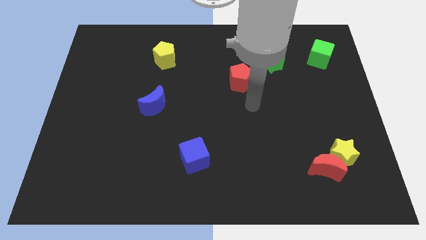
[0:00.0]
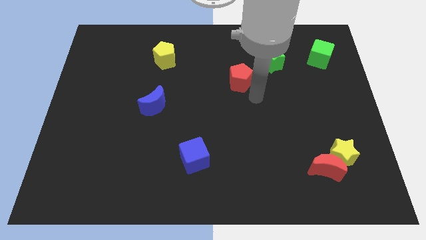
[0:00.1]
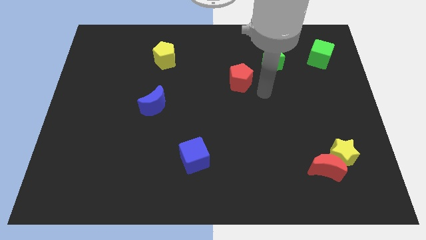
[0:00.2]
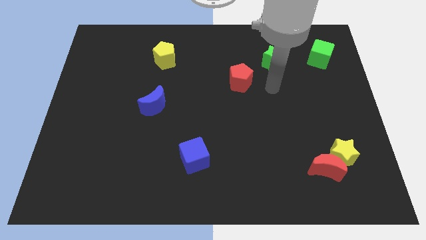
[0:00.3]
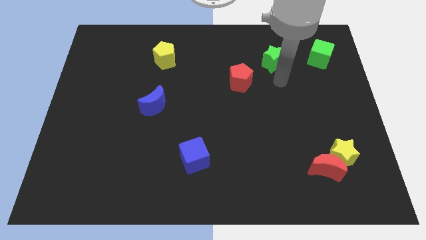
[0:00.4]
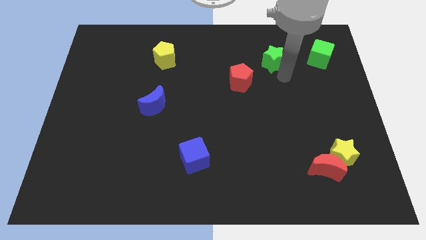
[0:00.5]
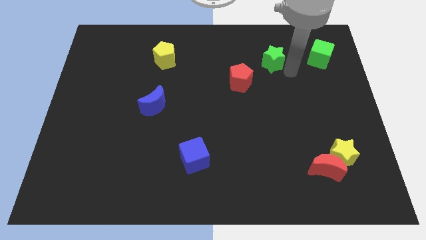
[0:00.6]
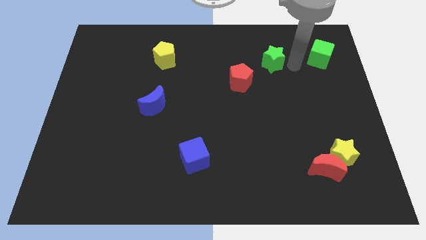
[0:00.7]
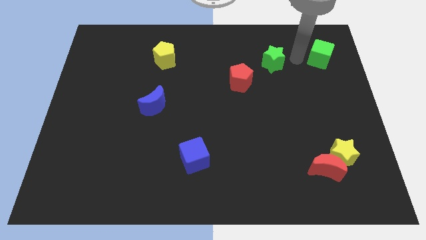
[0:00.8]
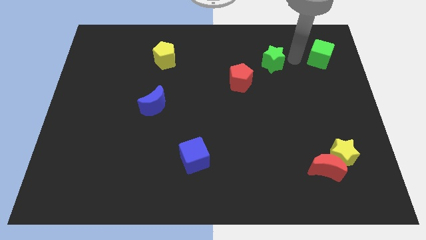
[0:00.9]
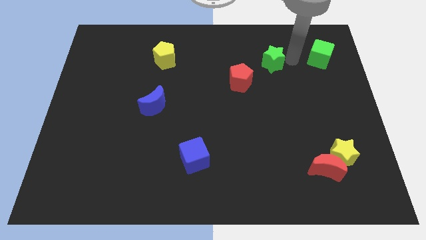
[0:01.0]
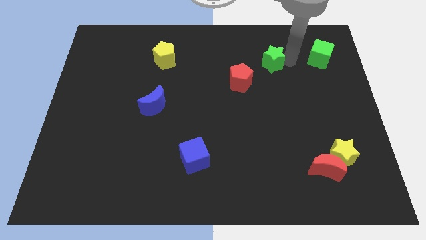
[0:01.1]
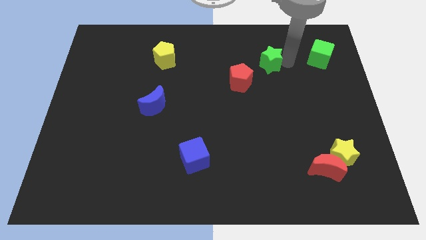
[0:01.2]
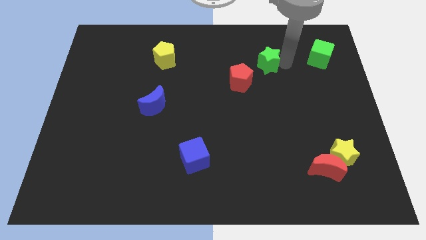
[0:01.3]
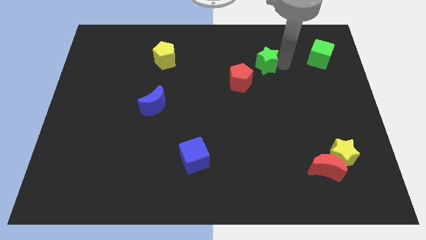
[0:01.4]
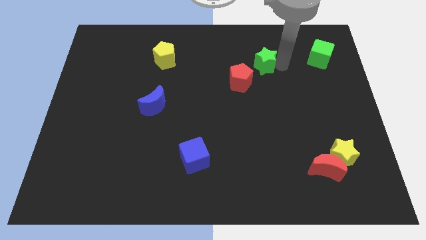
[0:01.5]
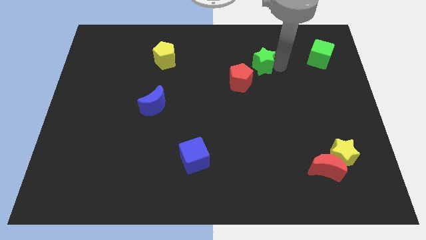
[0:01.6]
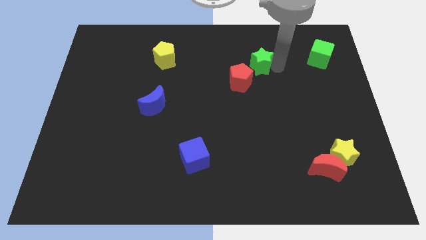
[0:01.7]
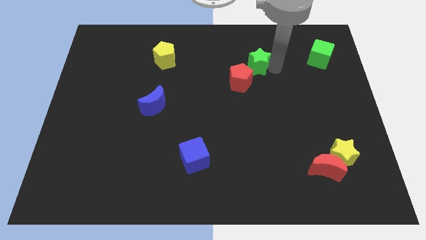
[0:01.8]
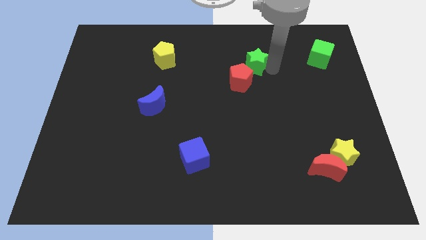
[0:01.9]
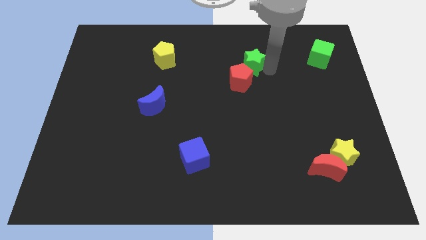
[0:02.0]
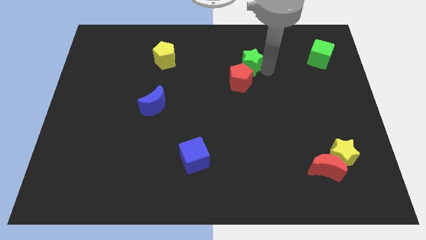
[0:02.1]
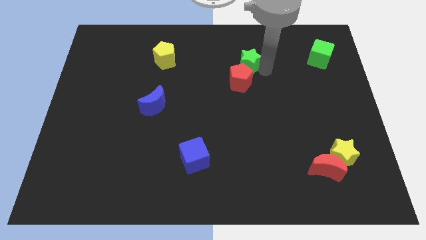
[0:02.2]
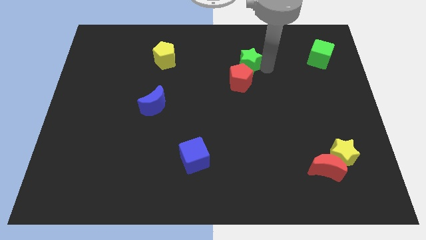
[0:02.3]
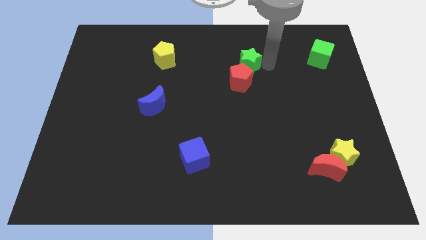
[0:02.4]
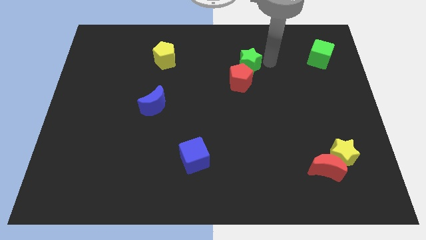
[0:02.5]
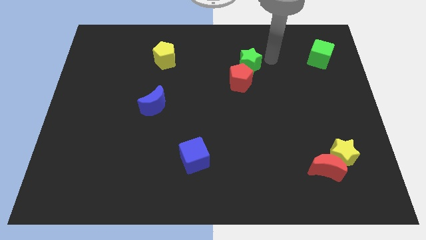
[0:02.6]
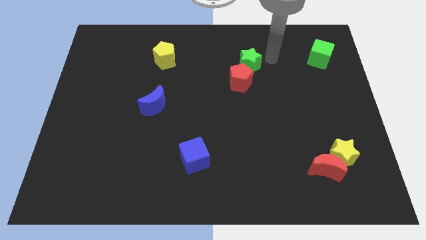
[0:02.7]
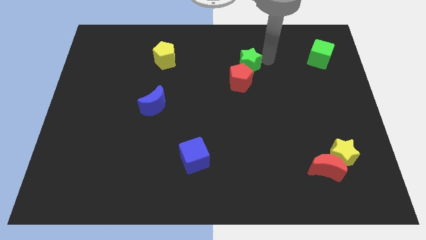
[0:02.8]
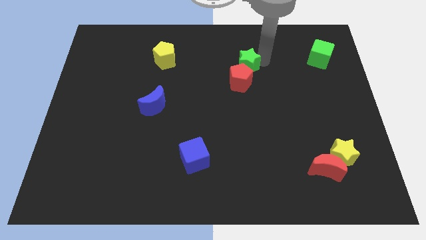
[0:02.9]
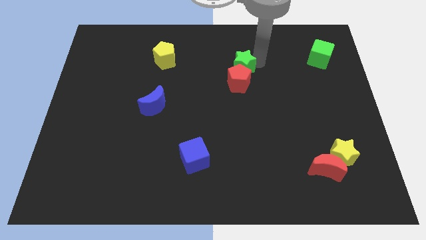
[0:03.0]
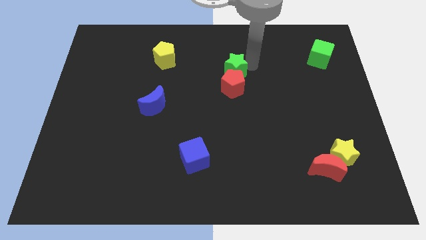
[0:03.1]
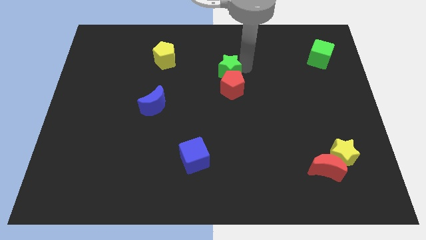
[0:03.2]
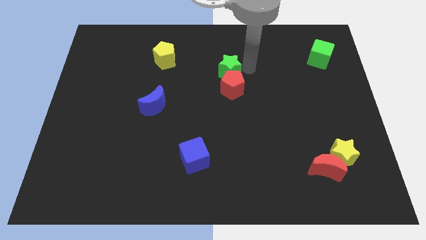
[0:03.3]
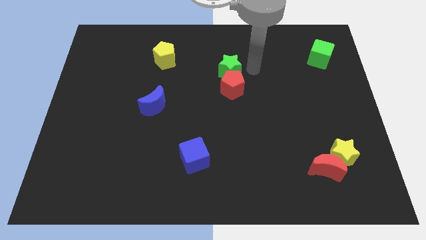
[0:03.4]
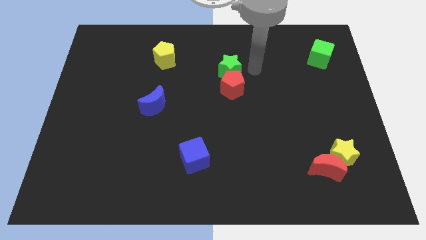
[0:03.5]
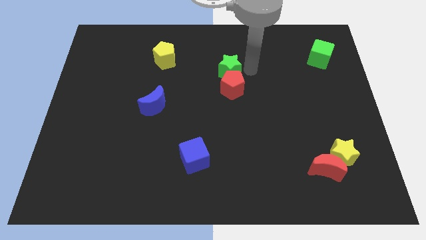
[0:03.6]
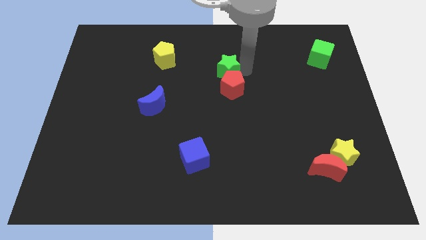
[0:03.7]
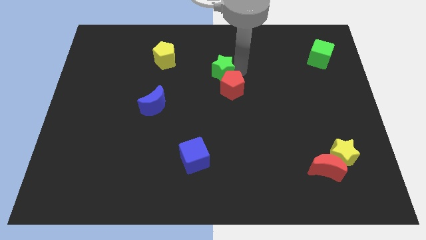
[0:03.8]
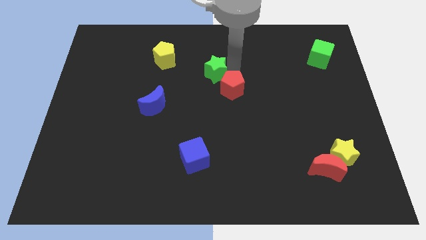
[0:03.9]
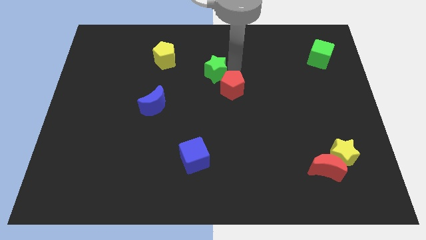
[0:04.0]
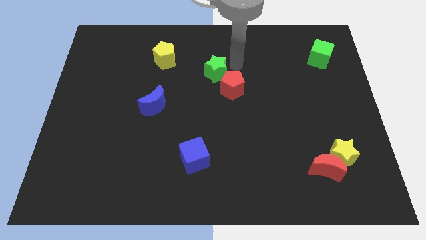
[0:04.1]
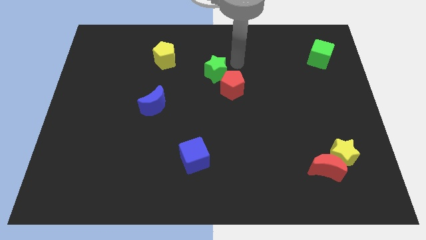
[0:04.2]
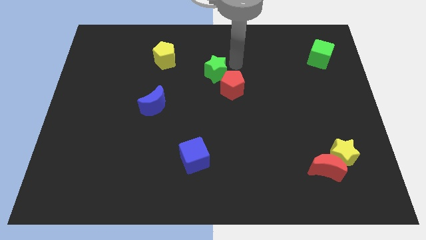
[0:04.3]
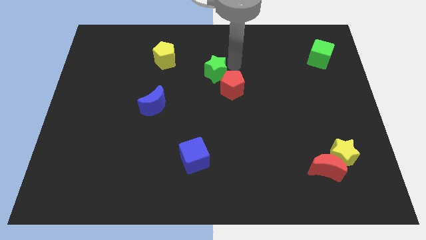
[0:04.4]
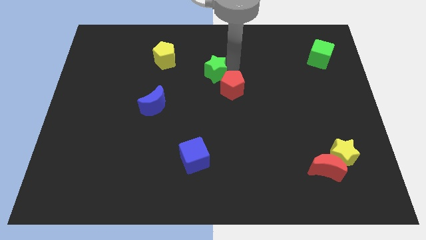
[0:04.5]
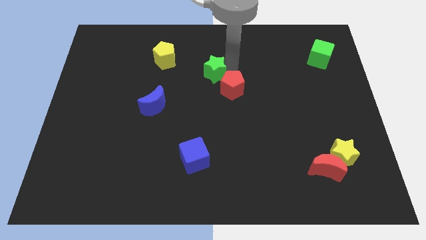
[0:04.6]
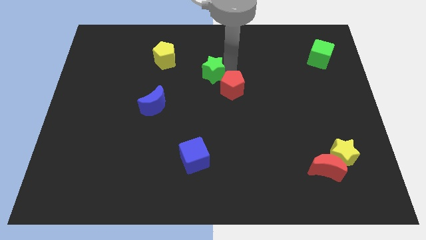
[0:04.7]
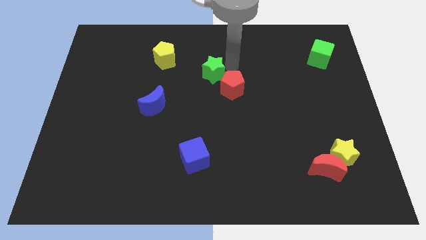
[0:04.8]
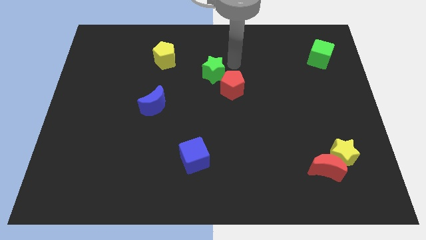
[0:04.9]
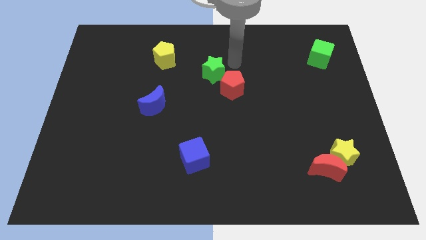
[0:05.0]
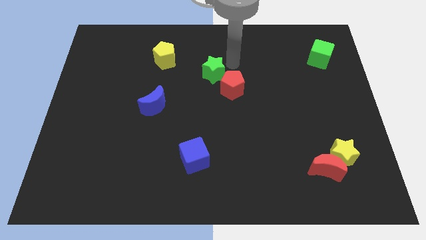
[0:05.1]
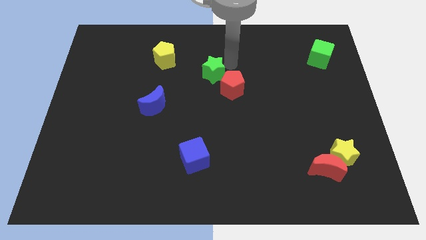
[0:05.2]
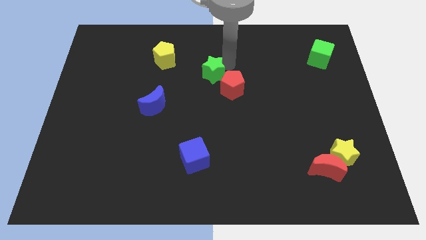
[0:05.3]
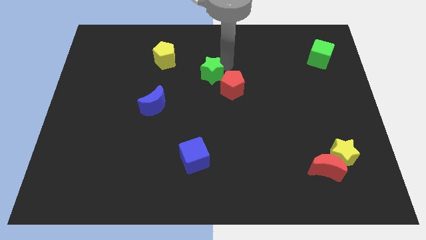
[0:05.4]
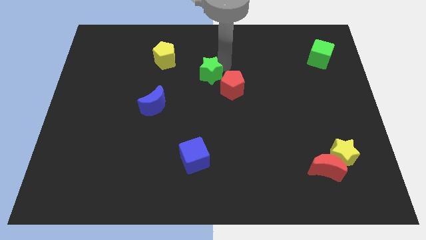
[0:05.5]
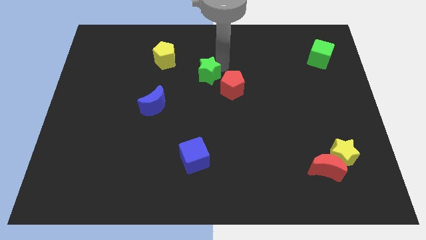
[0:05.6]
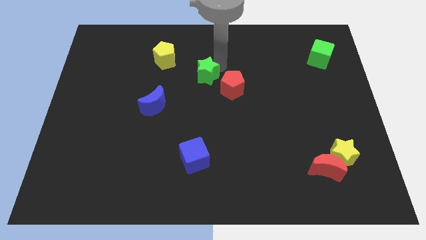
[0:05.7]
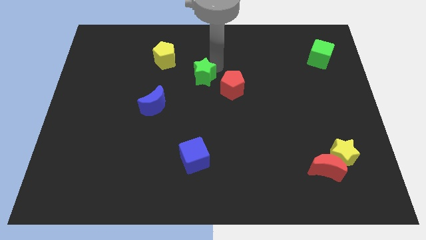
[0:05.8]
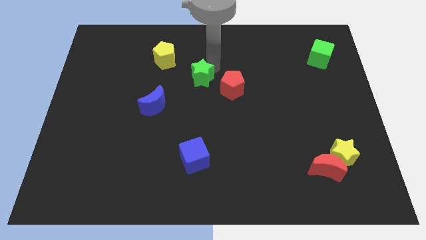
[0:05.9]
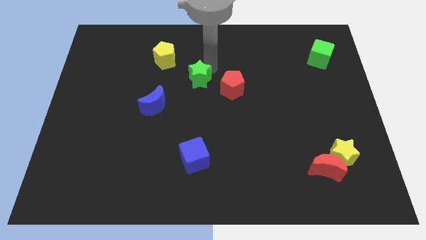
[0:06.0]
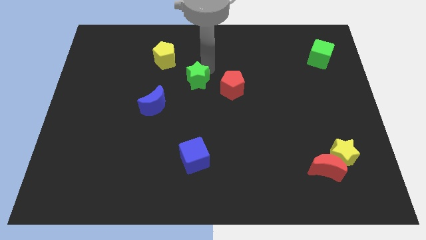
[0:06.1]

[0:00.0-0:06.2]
push the green star diagonally up and to the right of the blue moon

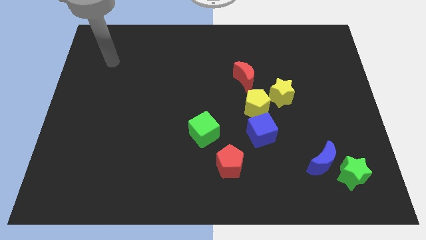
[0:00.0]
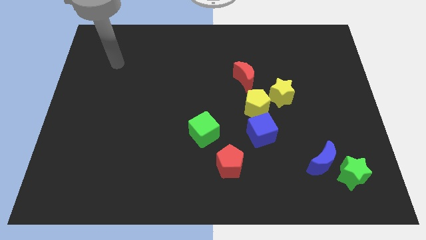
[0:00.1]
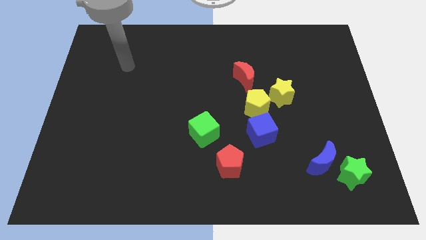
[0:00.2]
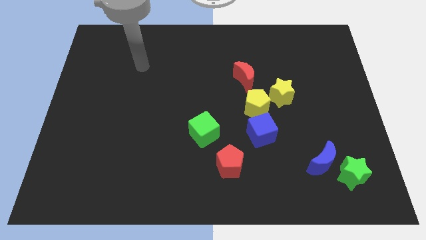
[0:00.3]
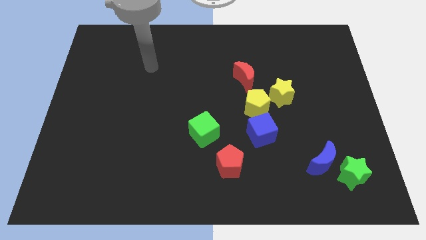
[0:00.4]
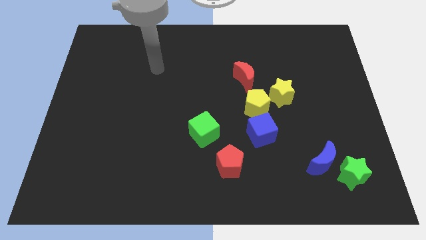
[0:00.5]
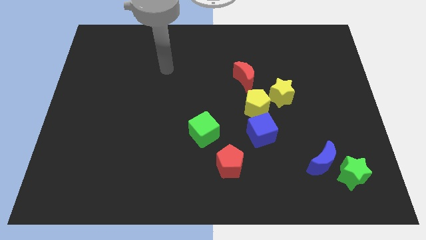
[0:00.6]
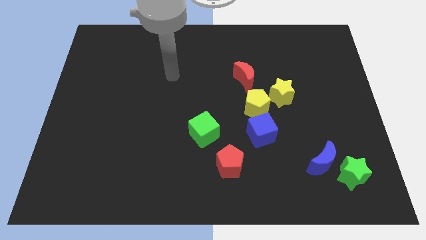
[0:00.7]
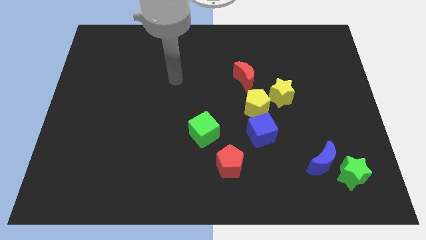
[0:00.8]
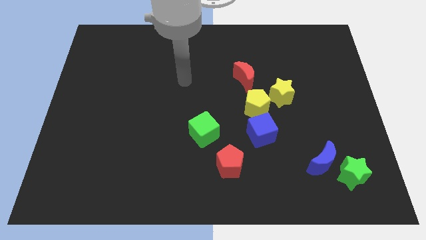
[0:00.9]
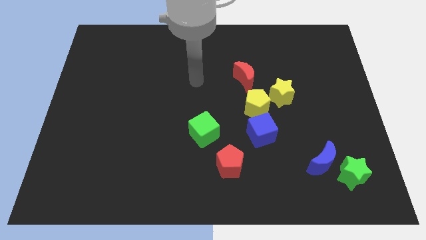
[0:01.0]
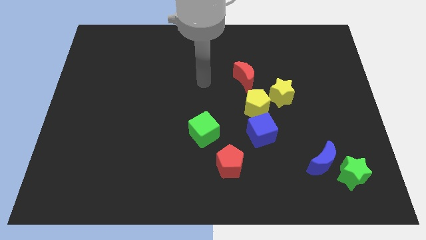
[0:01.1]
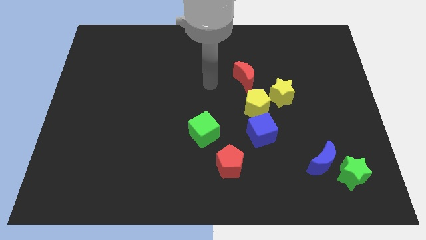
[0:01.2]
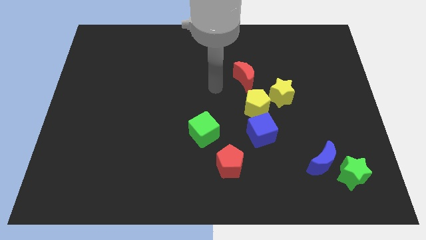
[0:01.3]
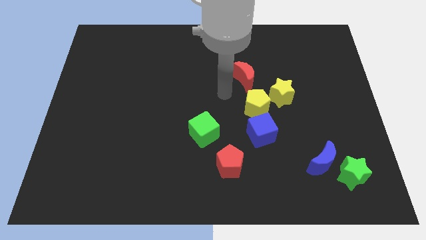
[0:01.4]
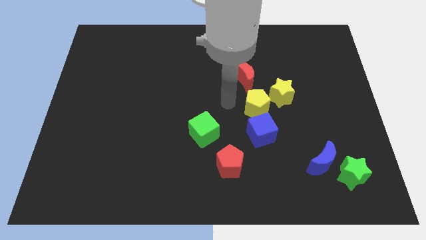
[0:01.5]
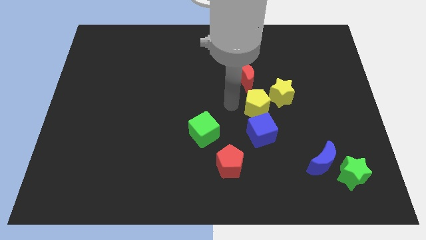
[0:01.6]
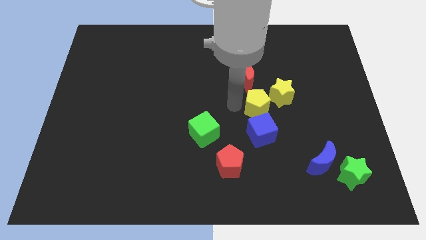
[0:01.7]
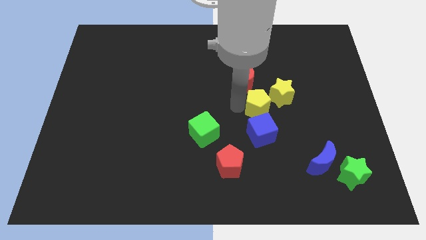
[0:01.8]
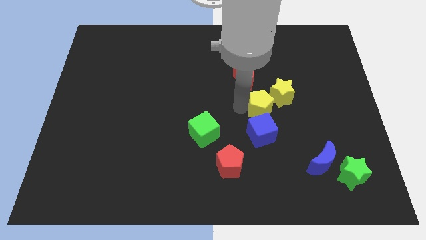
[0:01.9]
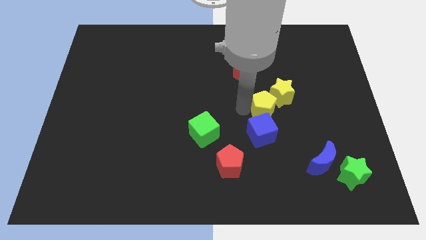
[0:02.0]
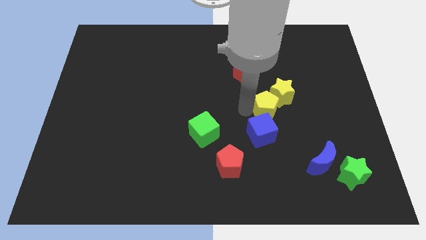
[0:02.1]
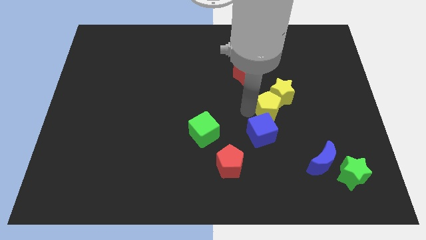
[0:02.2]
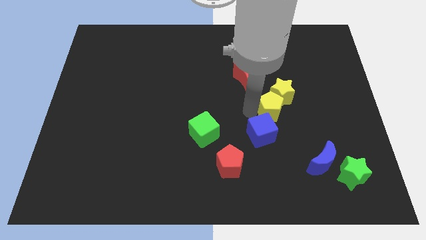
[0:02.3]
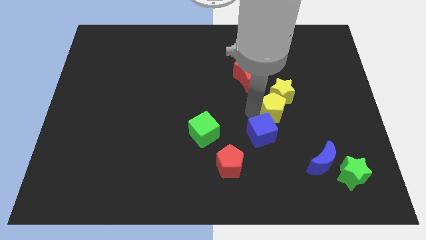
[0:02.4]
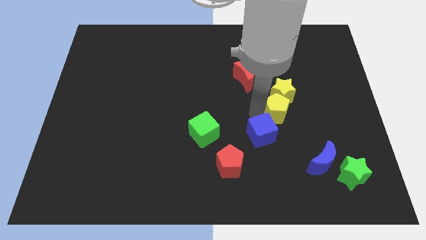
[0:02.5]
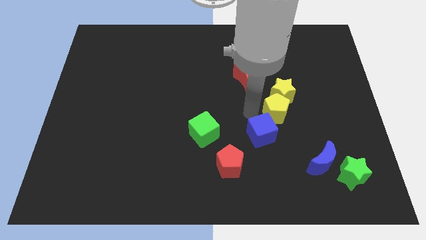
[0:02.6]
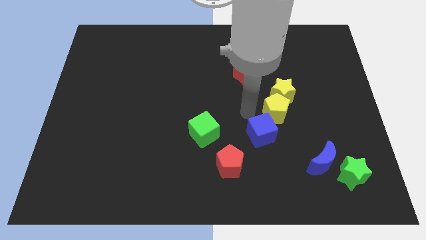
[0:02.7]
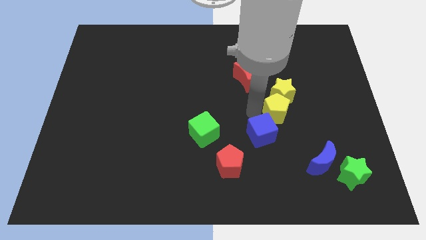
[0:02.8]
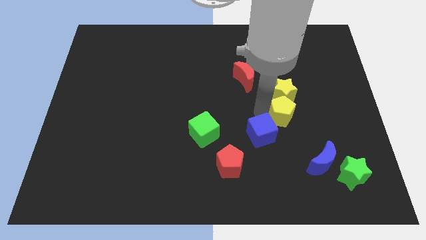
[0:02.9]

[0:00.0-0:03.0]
move the yellow pentagon to the bottom right side of the yellow star
